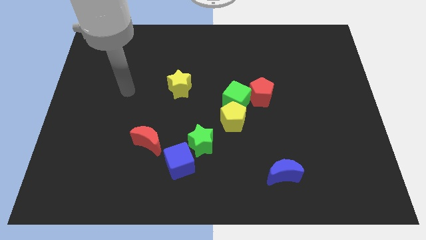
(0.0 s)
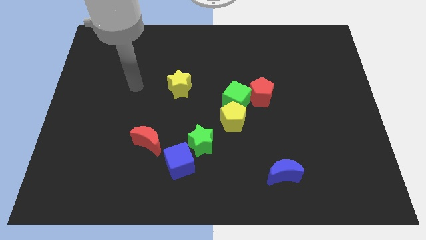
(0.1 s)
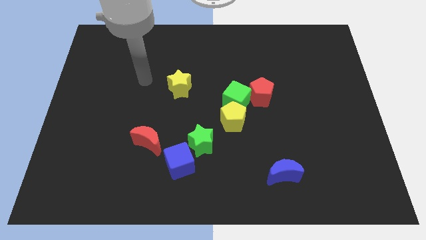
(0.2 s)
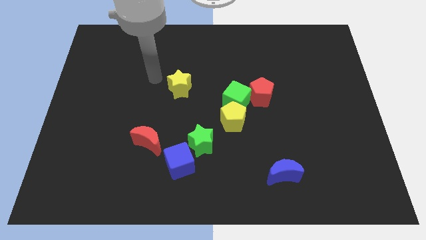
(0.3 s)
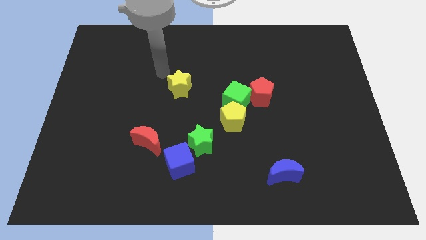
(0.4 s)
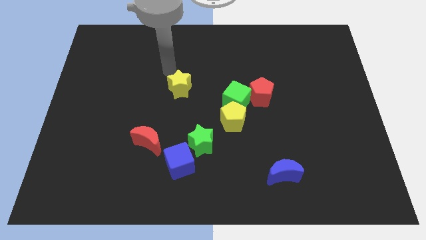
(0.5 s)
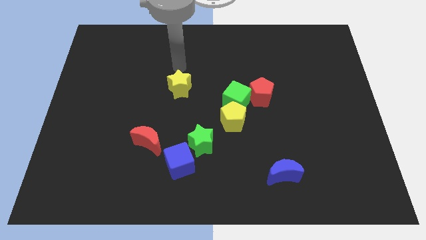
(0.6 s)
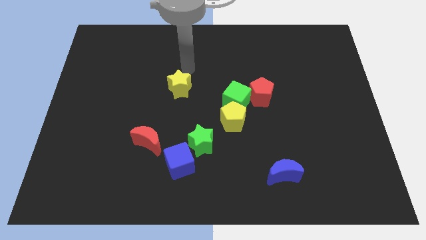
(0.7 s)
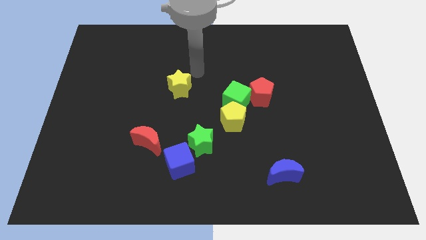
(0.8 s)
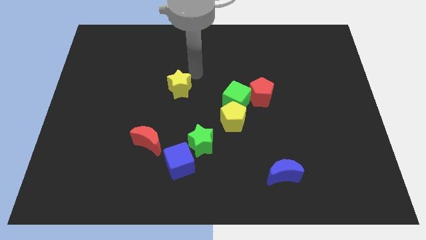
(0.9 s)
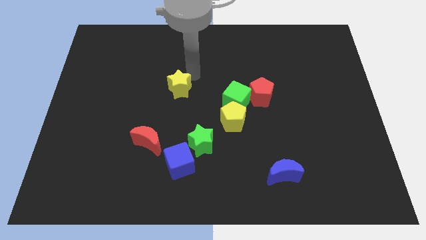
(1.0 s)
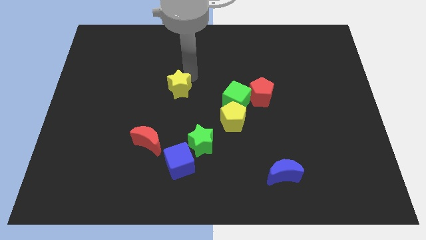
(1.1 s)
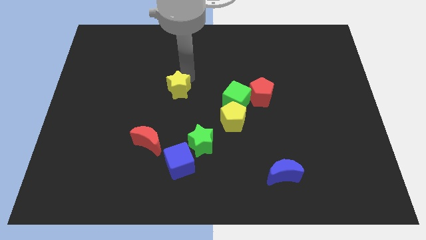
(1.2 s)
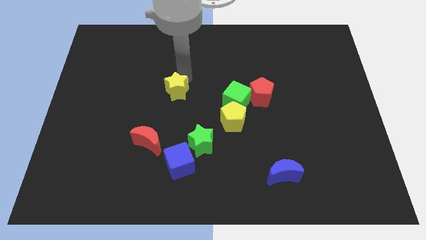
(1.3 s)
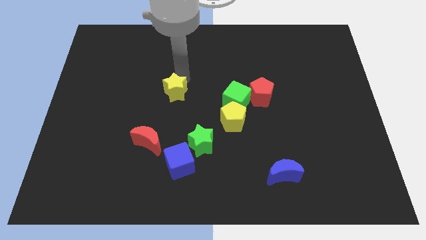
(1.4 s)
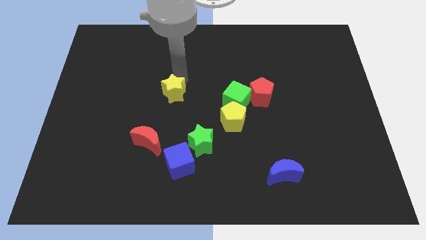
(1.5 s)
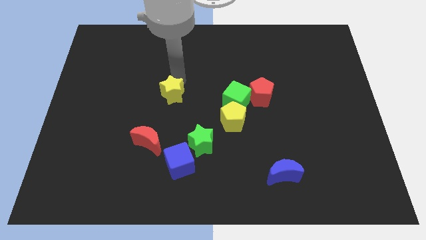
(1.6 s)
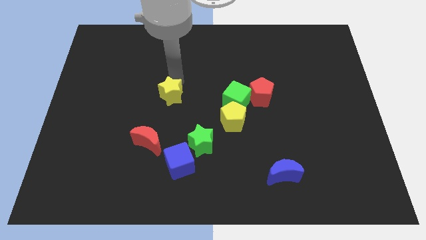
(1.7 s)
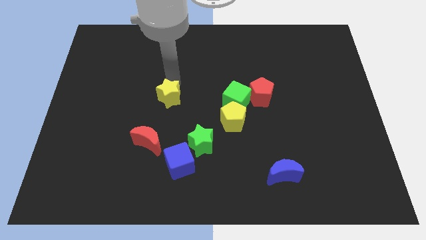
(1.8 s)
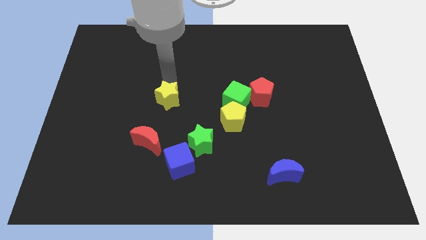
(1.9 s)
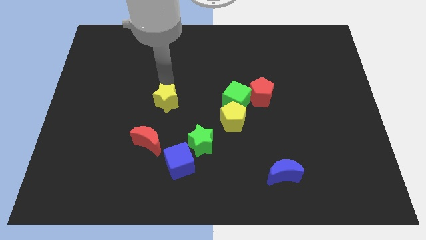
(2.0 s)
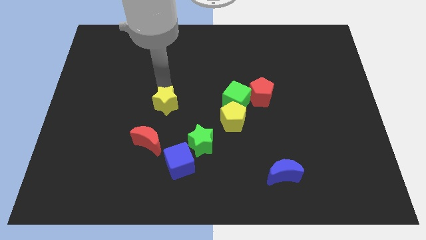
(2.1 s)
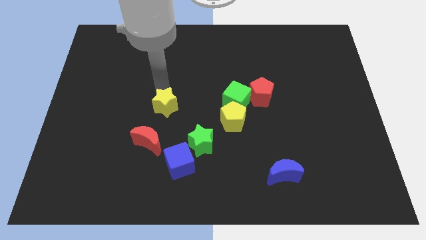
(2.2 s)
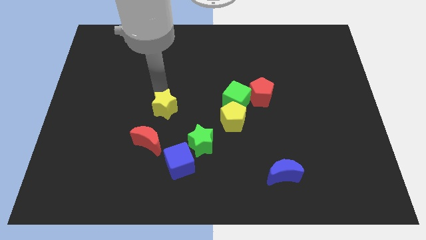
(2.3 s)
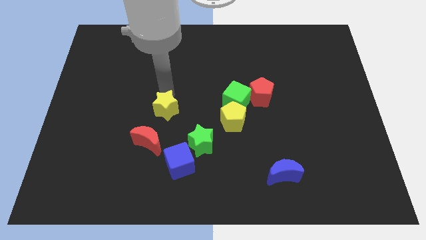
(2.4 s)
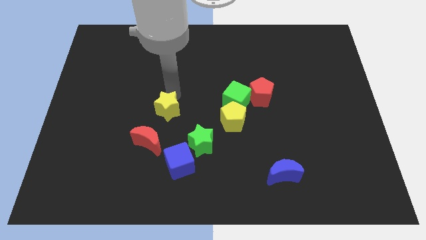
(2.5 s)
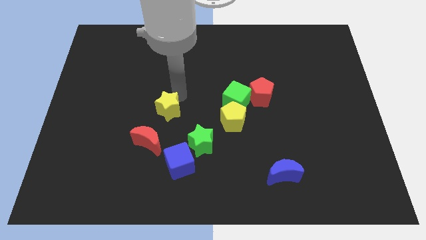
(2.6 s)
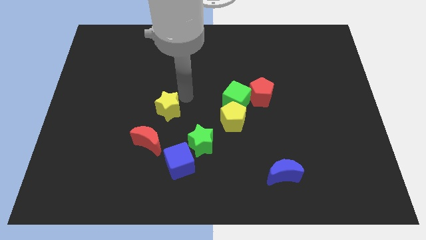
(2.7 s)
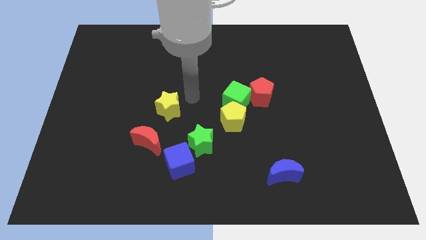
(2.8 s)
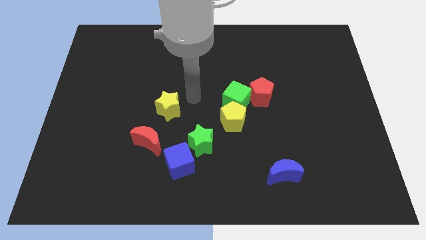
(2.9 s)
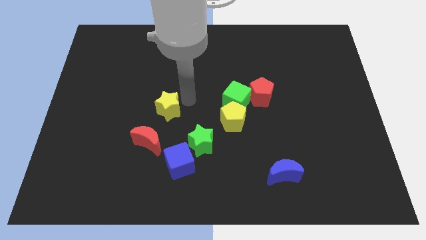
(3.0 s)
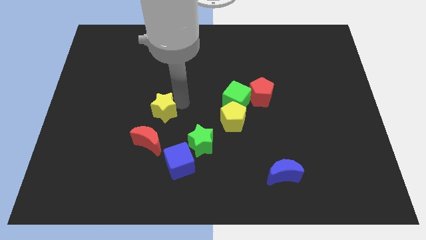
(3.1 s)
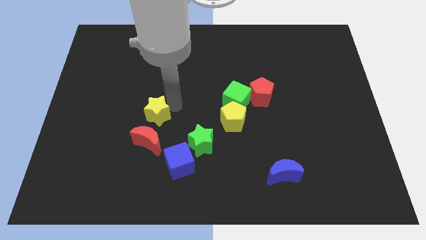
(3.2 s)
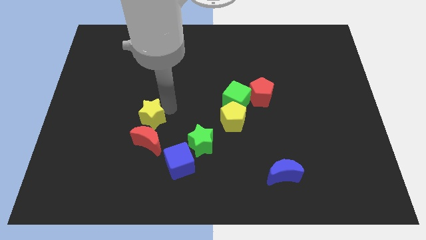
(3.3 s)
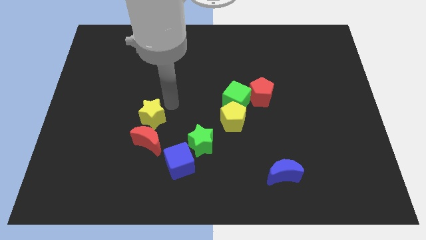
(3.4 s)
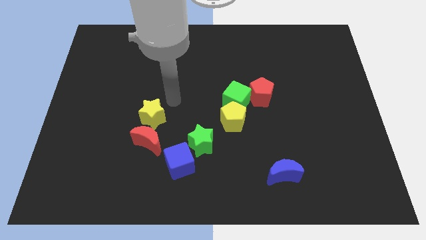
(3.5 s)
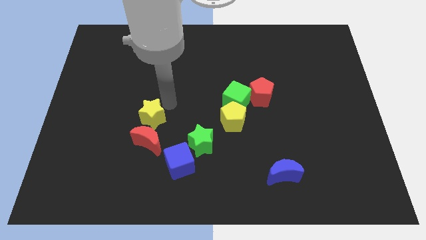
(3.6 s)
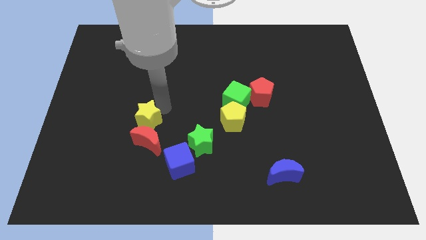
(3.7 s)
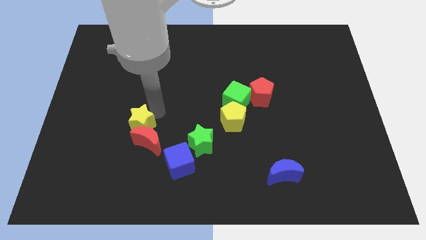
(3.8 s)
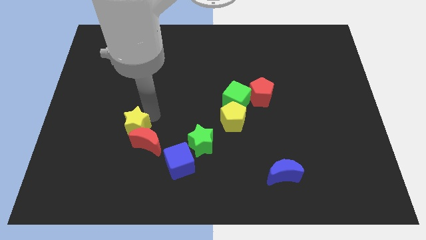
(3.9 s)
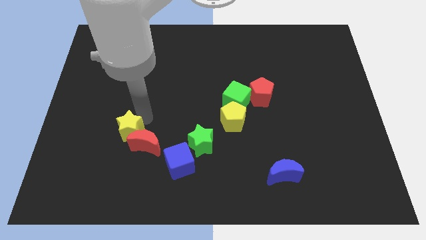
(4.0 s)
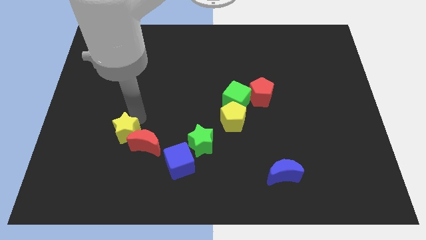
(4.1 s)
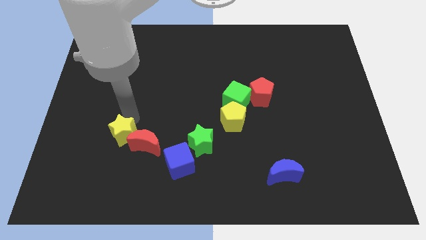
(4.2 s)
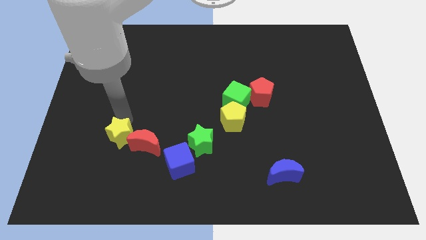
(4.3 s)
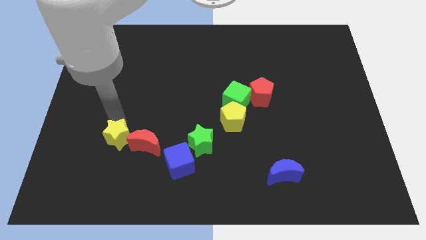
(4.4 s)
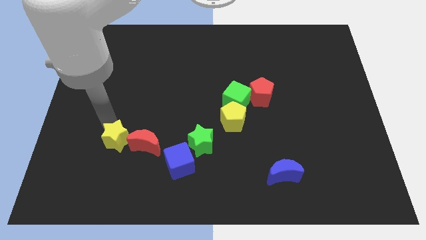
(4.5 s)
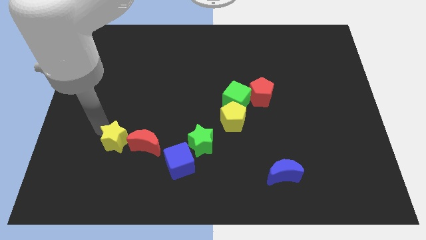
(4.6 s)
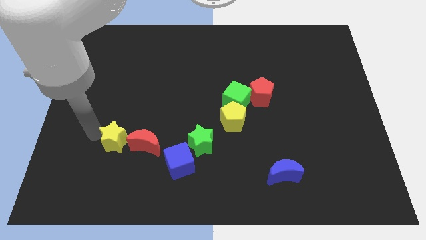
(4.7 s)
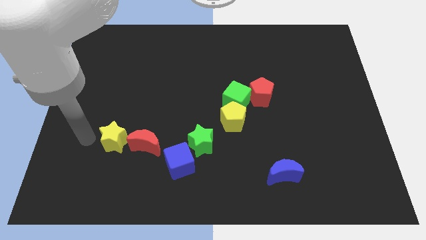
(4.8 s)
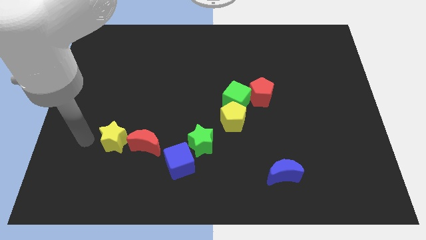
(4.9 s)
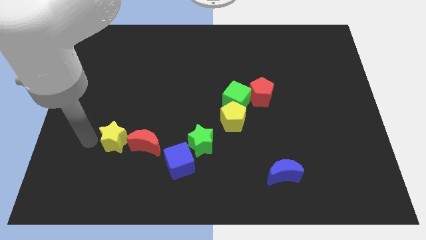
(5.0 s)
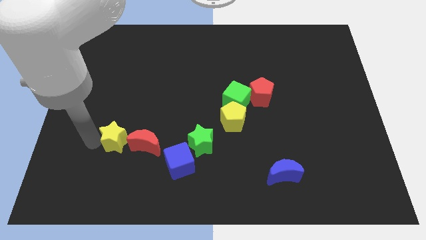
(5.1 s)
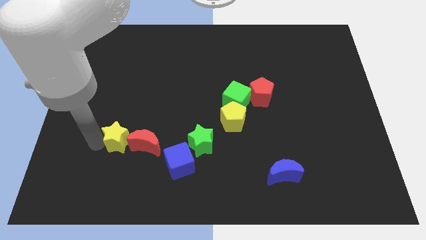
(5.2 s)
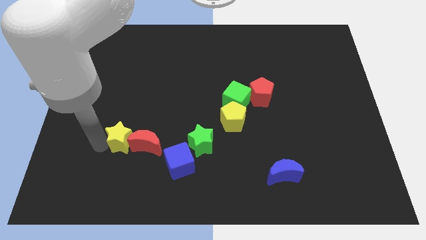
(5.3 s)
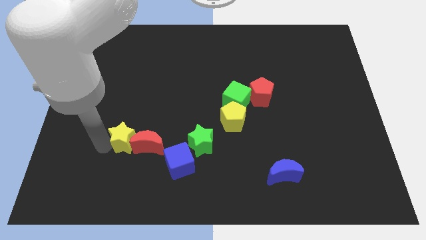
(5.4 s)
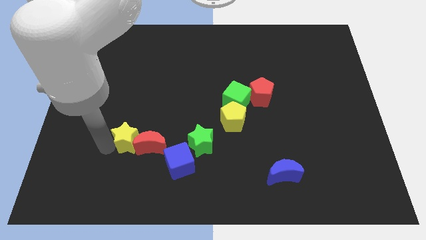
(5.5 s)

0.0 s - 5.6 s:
slide the yellow star to the left of the green star

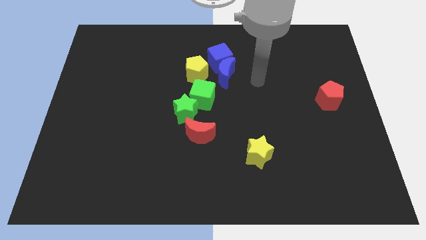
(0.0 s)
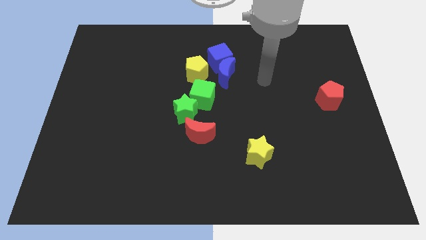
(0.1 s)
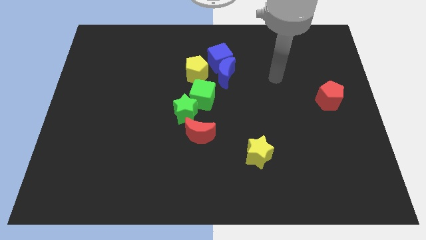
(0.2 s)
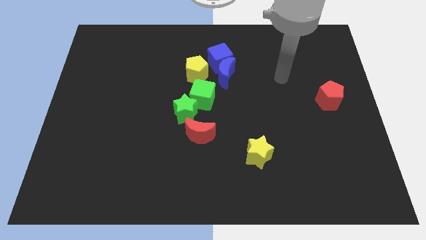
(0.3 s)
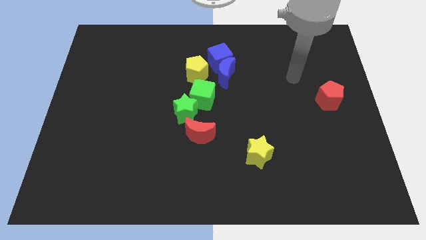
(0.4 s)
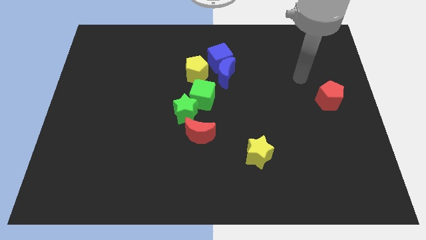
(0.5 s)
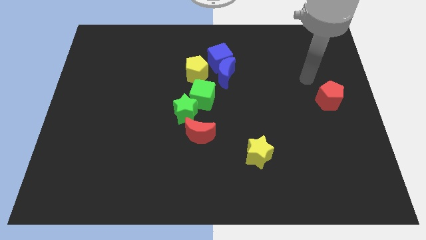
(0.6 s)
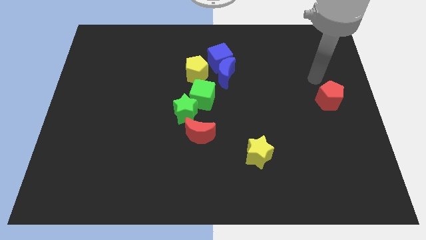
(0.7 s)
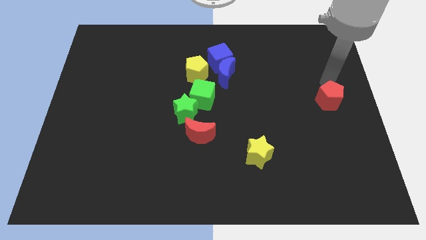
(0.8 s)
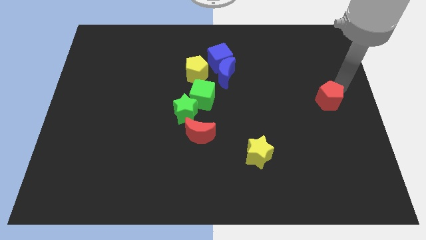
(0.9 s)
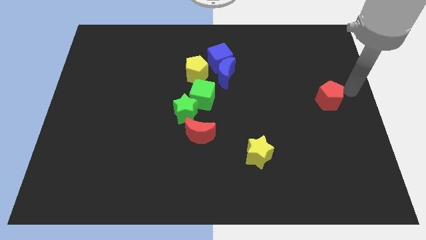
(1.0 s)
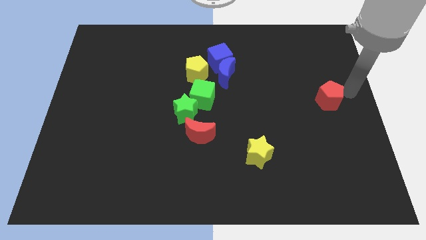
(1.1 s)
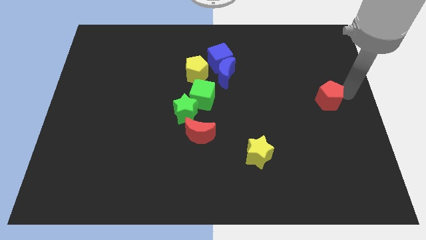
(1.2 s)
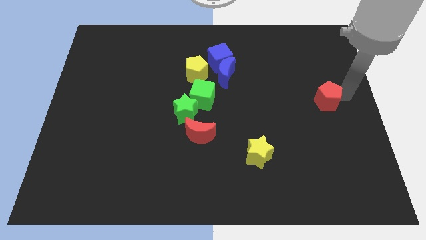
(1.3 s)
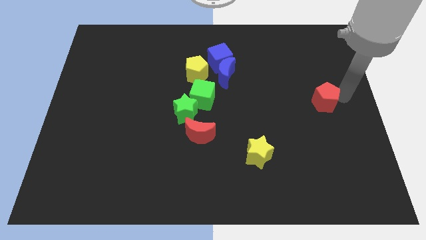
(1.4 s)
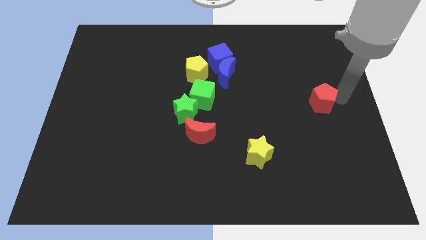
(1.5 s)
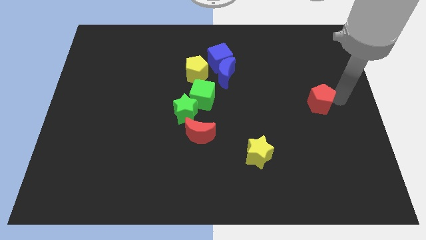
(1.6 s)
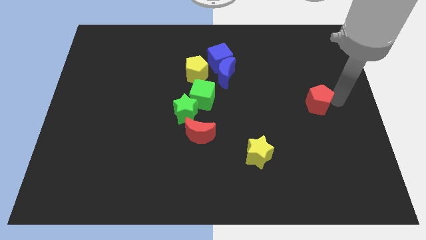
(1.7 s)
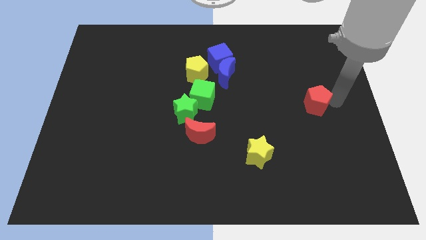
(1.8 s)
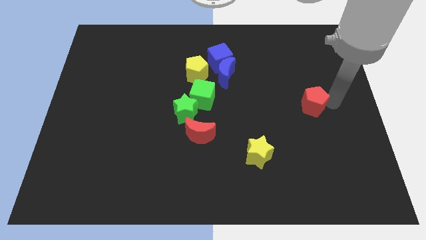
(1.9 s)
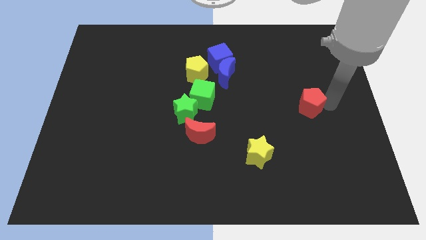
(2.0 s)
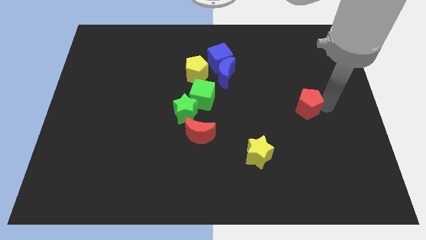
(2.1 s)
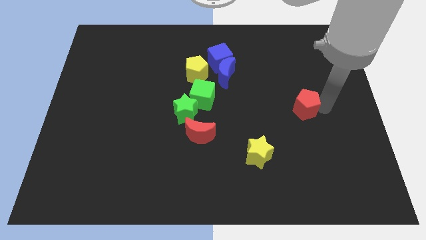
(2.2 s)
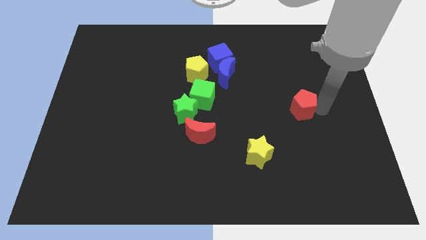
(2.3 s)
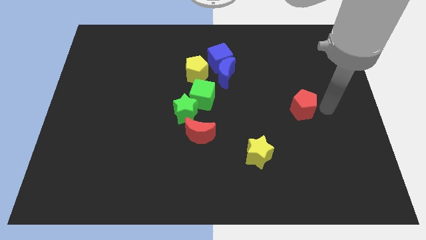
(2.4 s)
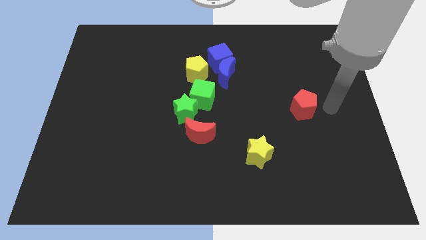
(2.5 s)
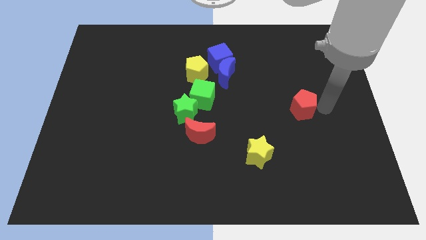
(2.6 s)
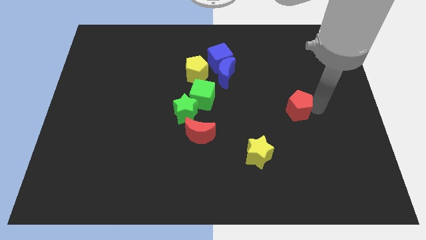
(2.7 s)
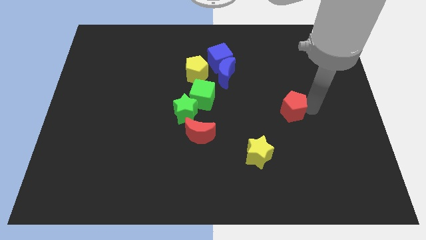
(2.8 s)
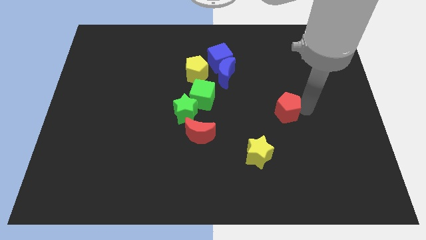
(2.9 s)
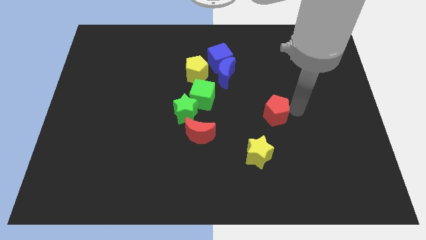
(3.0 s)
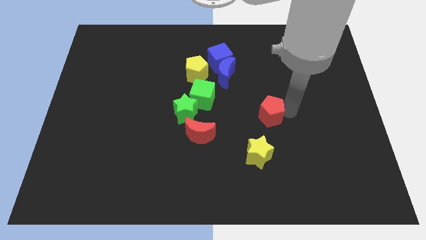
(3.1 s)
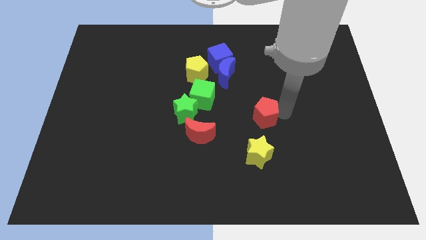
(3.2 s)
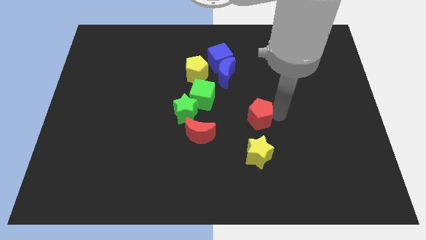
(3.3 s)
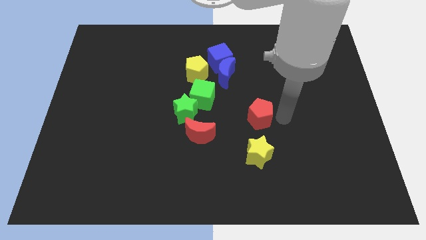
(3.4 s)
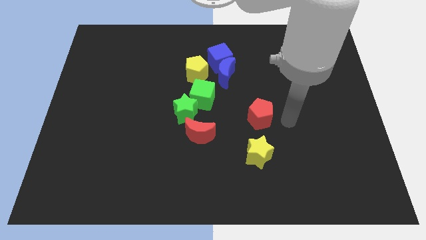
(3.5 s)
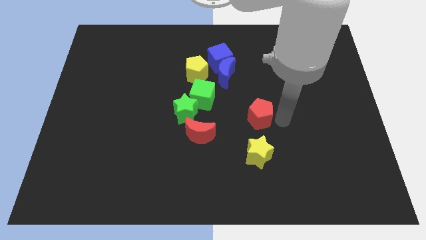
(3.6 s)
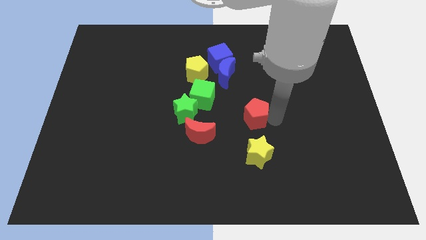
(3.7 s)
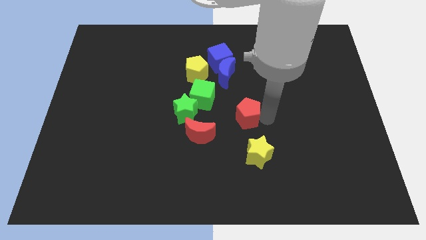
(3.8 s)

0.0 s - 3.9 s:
move the red pentagon just right of the green star
